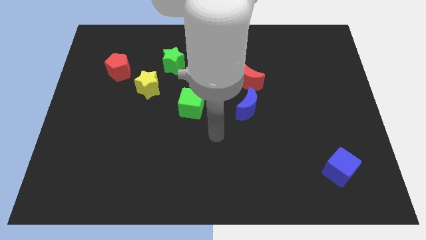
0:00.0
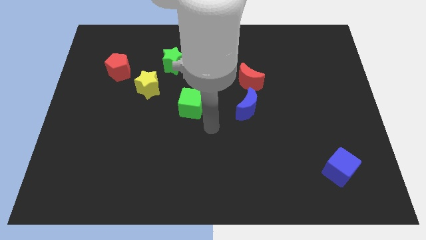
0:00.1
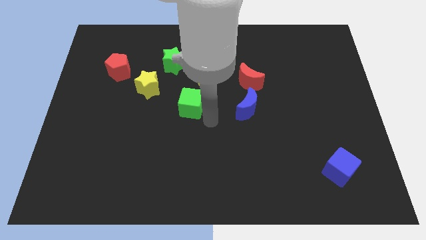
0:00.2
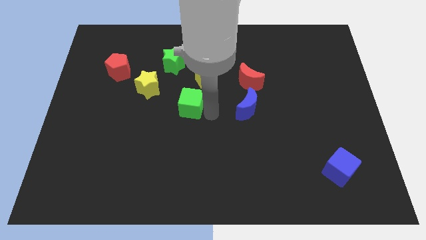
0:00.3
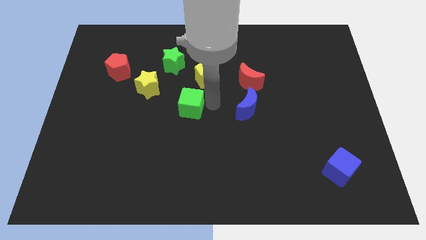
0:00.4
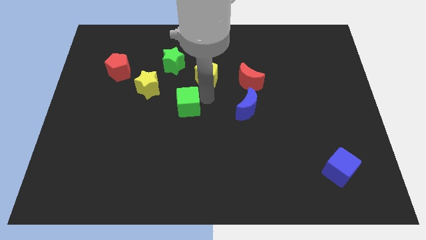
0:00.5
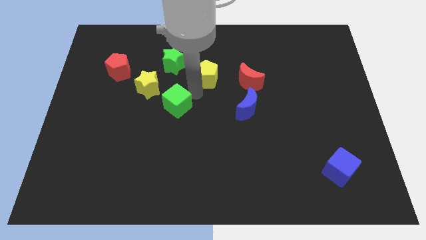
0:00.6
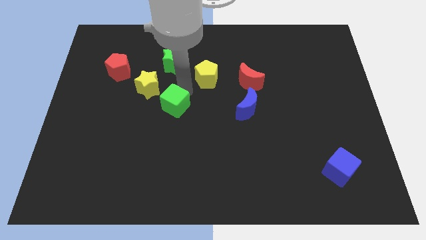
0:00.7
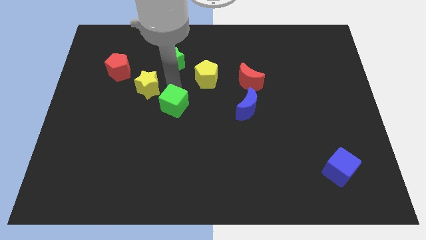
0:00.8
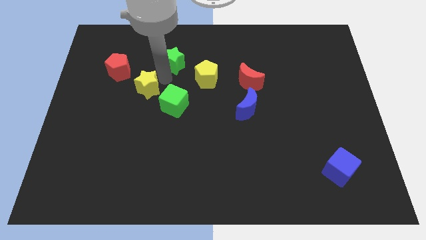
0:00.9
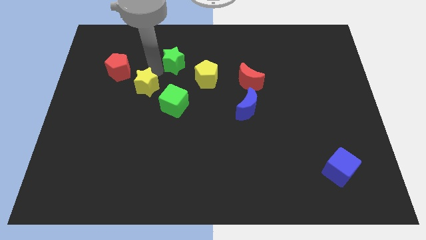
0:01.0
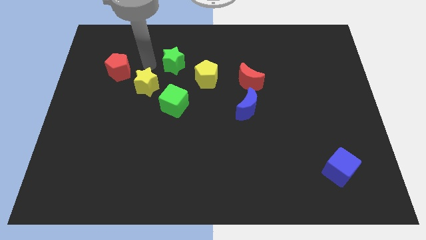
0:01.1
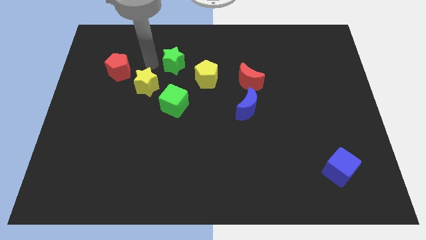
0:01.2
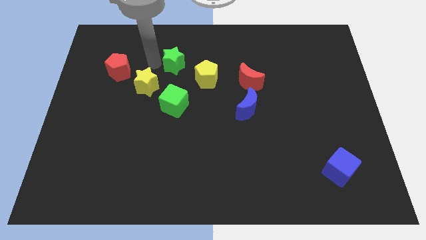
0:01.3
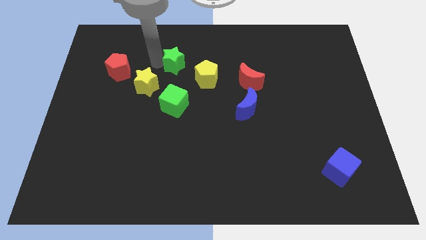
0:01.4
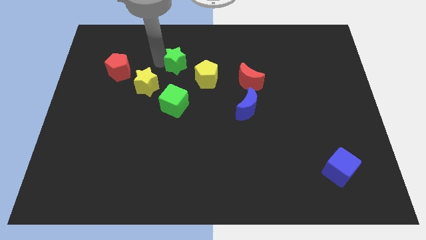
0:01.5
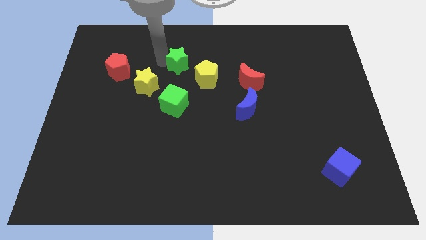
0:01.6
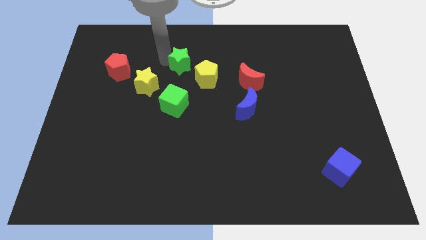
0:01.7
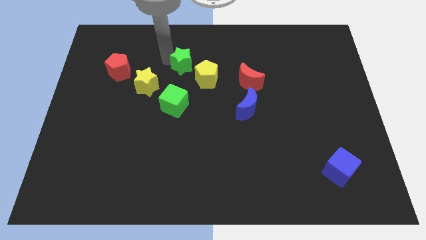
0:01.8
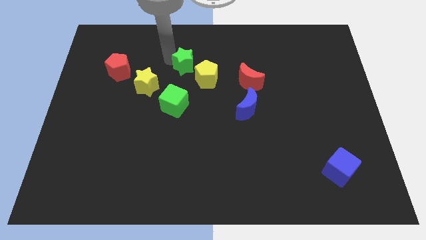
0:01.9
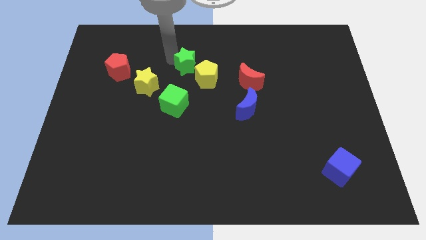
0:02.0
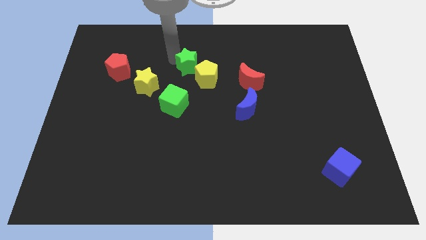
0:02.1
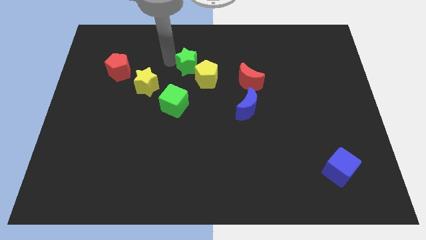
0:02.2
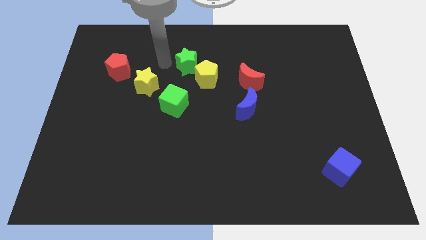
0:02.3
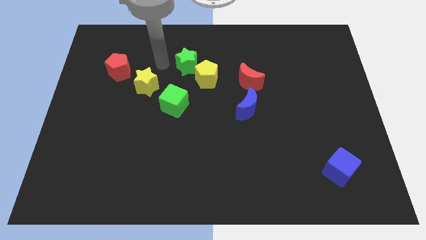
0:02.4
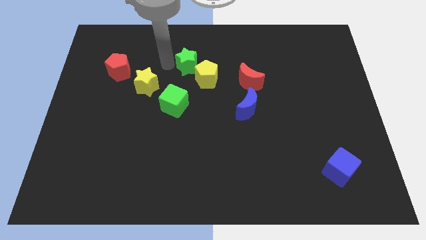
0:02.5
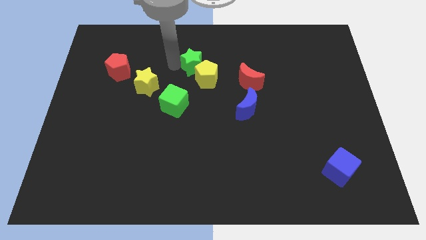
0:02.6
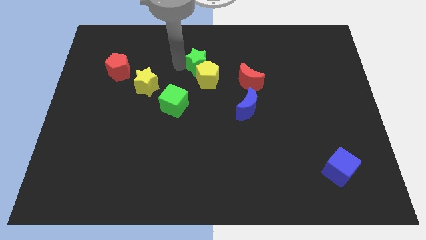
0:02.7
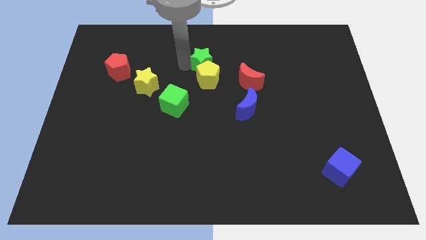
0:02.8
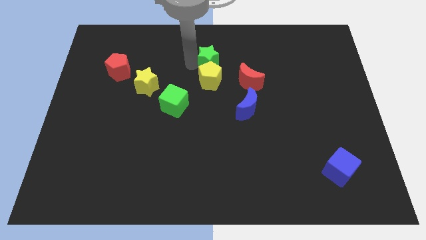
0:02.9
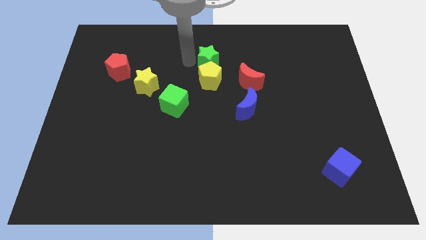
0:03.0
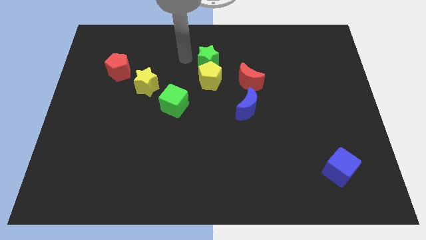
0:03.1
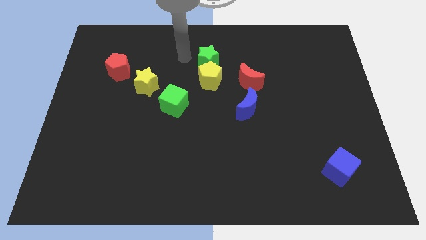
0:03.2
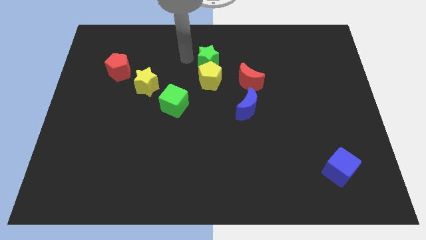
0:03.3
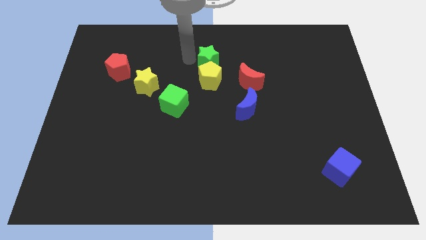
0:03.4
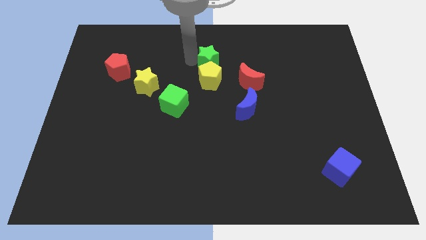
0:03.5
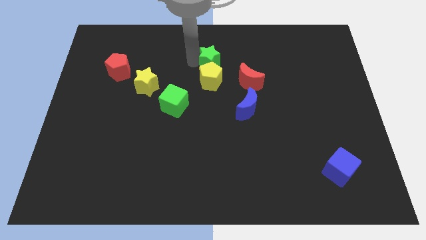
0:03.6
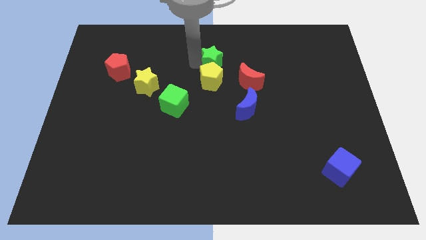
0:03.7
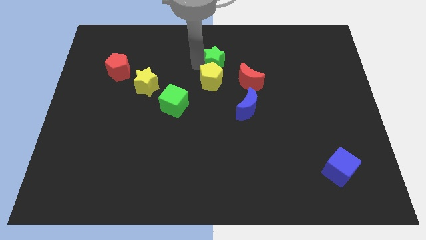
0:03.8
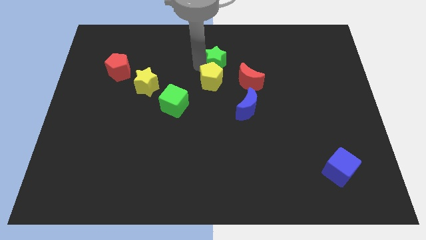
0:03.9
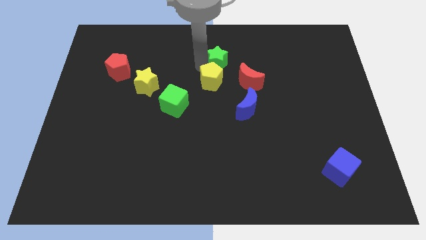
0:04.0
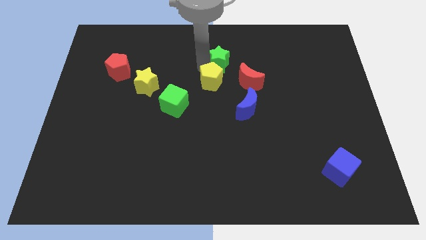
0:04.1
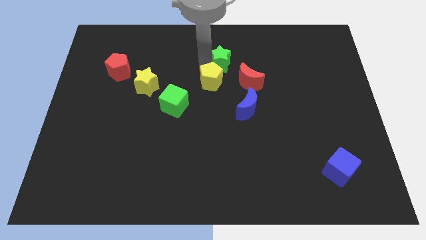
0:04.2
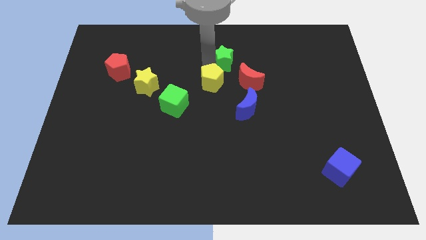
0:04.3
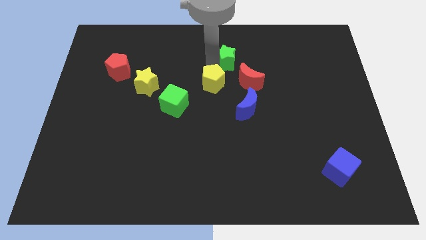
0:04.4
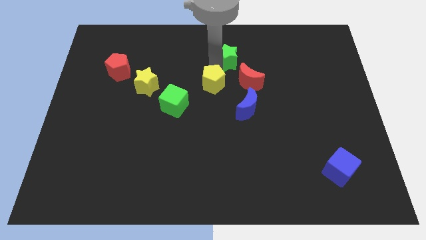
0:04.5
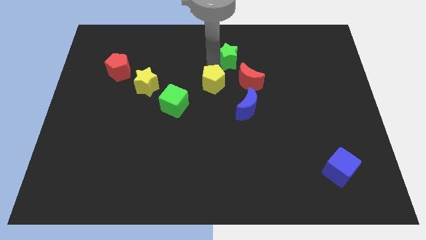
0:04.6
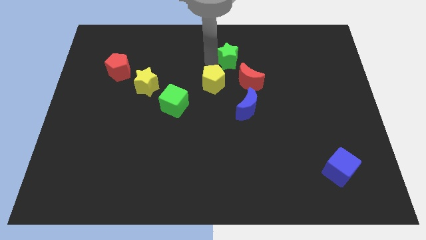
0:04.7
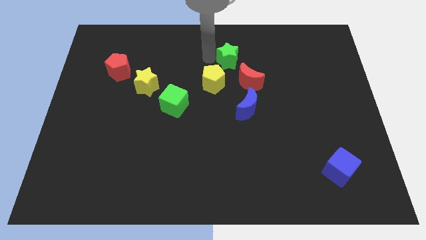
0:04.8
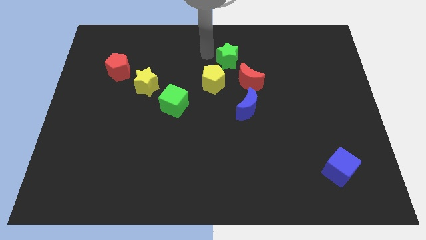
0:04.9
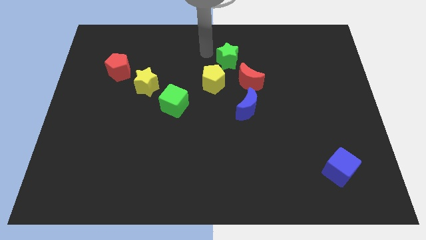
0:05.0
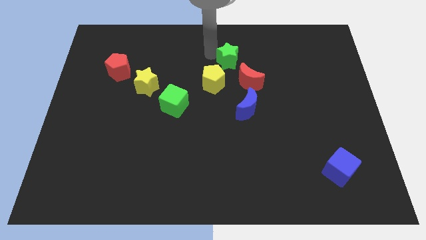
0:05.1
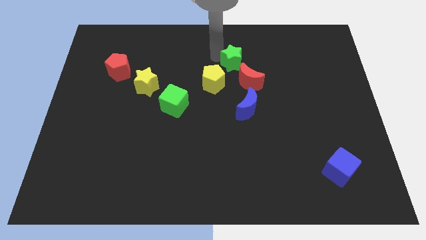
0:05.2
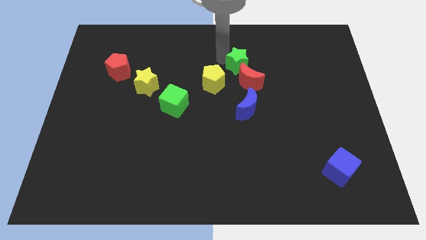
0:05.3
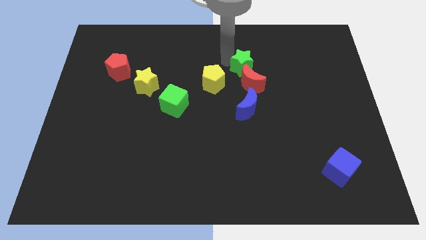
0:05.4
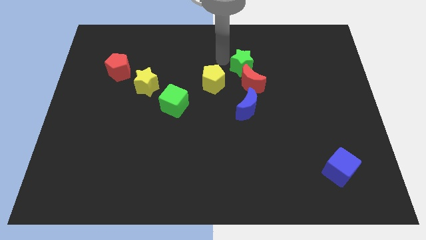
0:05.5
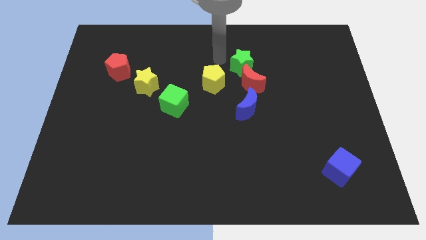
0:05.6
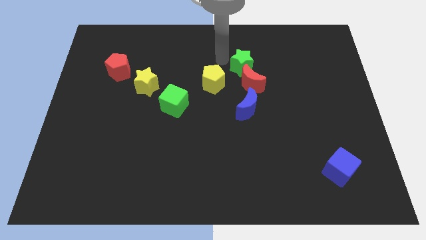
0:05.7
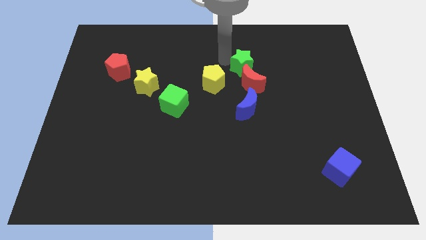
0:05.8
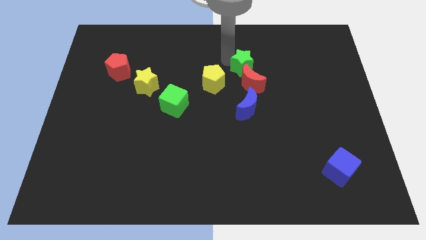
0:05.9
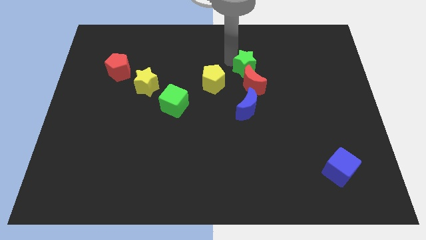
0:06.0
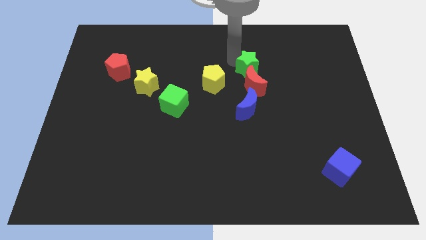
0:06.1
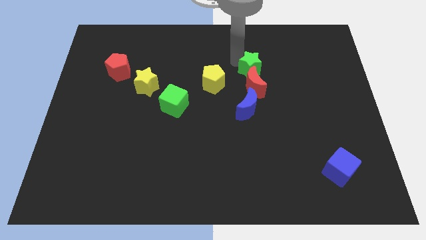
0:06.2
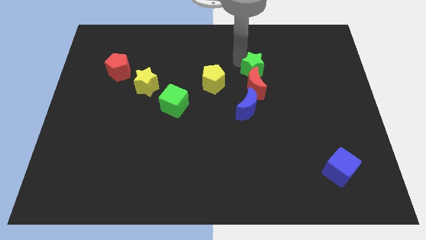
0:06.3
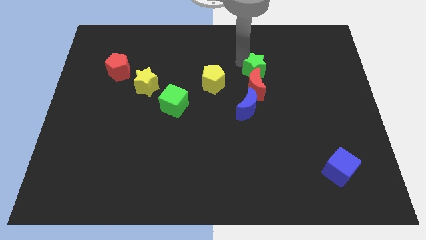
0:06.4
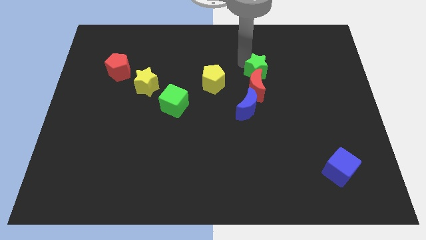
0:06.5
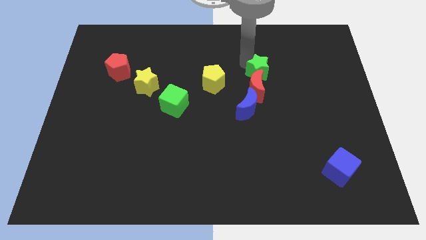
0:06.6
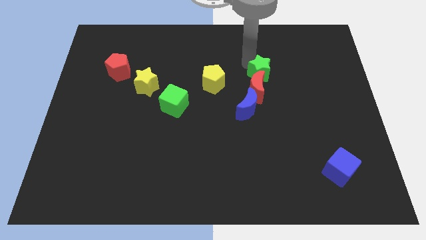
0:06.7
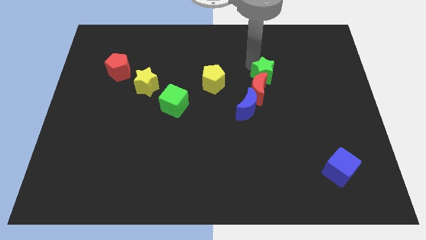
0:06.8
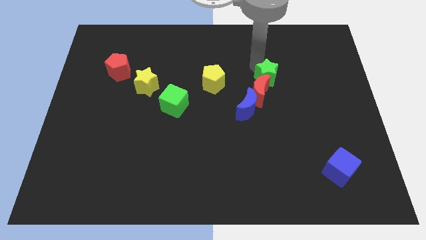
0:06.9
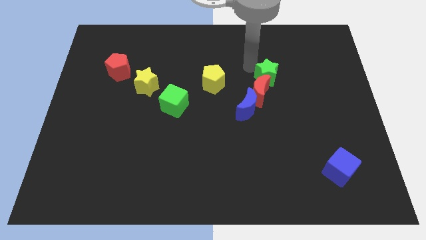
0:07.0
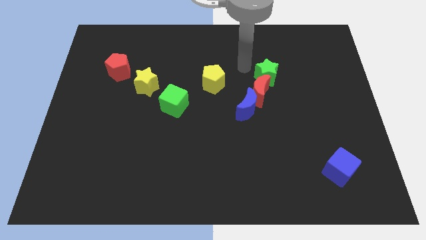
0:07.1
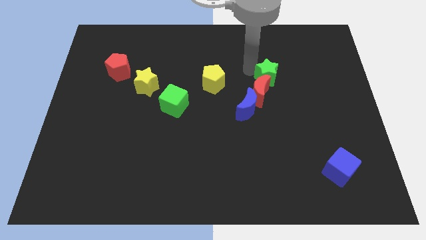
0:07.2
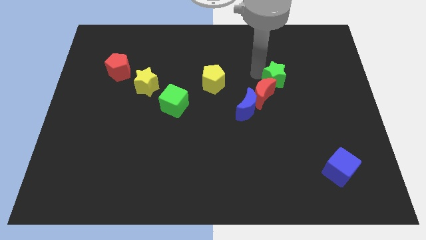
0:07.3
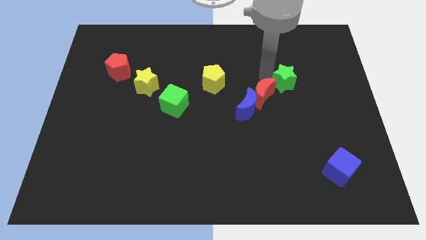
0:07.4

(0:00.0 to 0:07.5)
move the green star just right of the red moon
